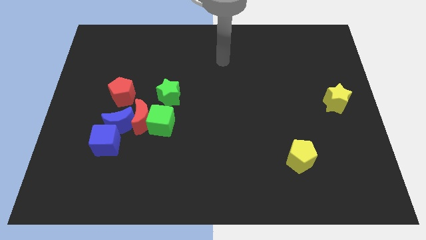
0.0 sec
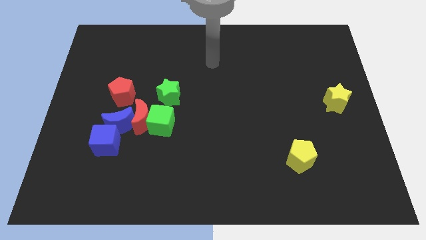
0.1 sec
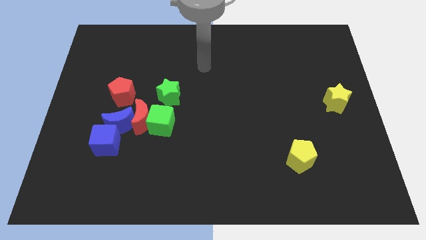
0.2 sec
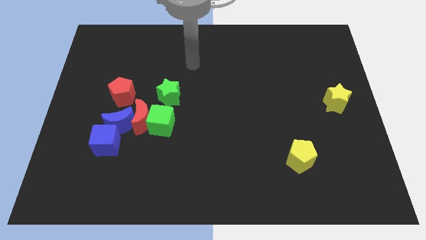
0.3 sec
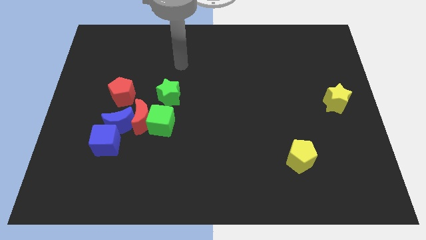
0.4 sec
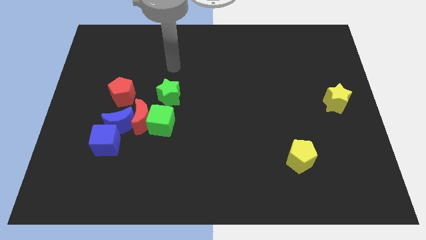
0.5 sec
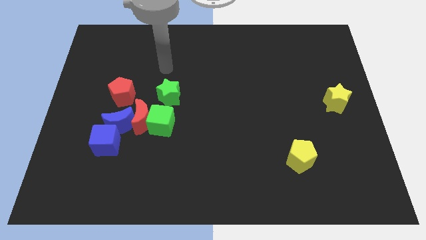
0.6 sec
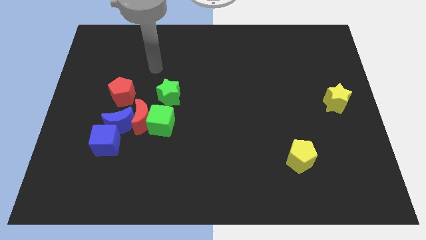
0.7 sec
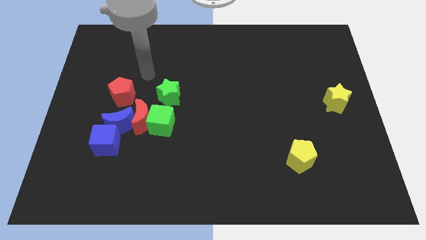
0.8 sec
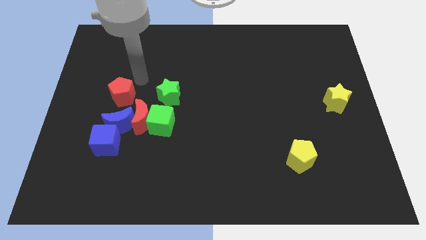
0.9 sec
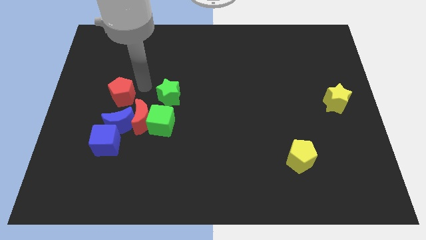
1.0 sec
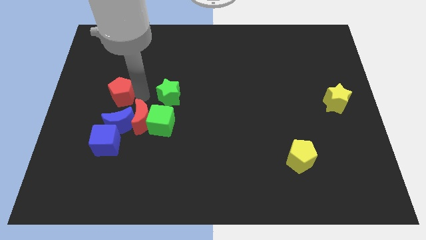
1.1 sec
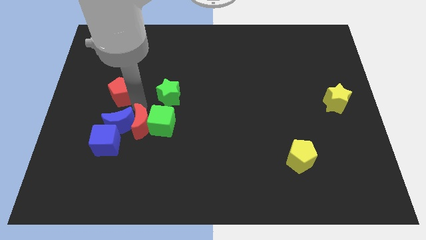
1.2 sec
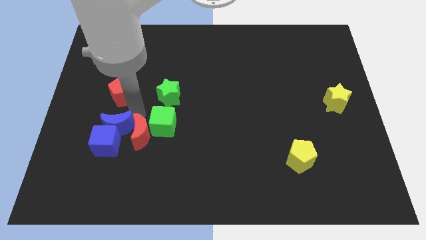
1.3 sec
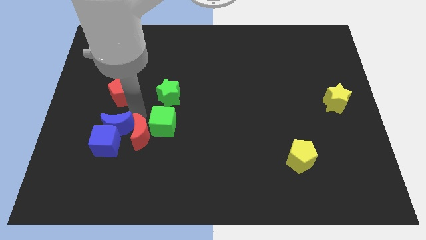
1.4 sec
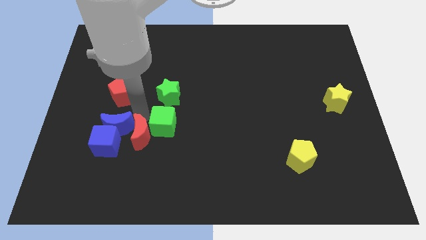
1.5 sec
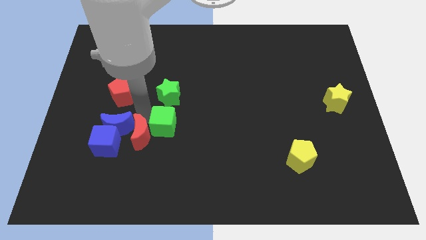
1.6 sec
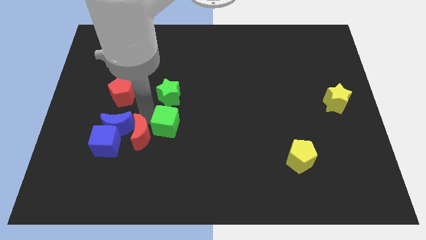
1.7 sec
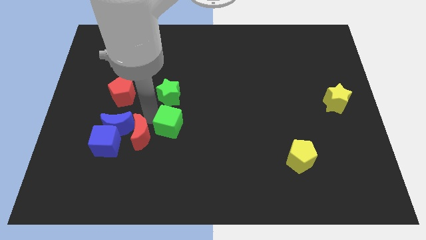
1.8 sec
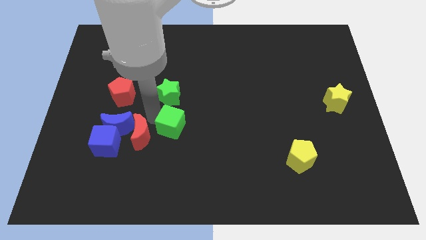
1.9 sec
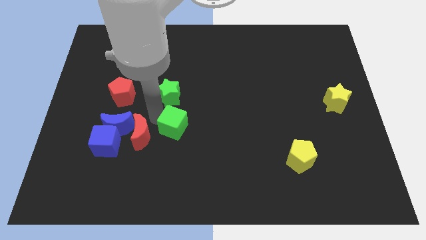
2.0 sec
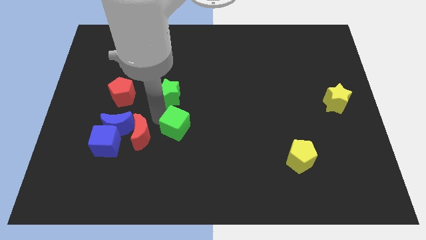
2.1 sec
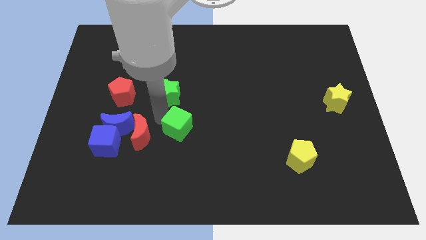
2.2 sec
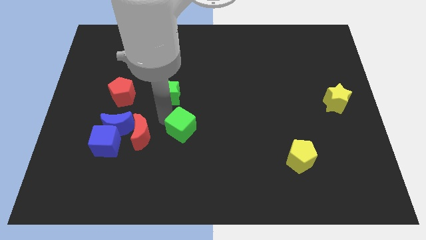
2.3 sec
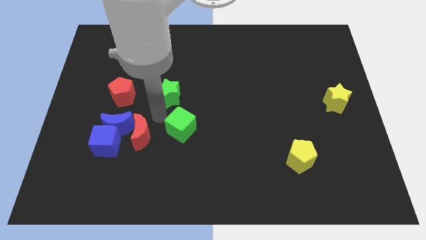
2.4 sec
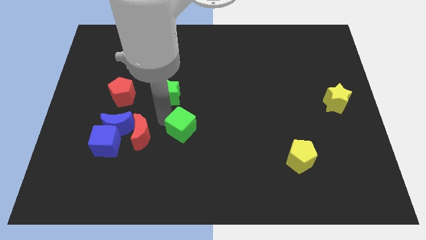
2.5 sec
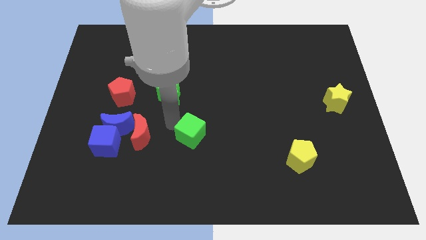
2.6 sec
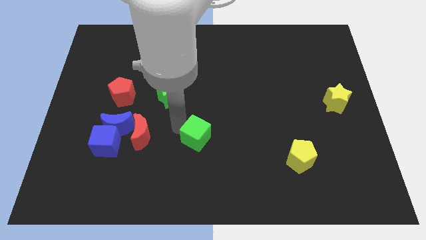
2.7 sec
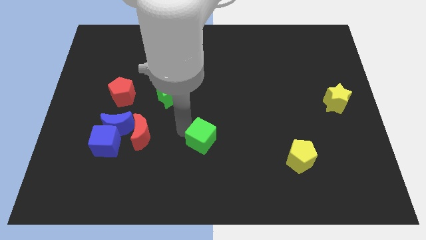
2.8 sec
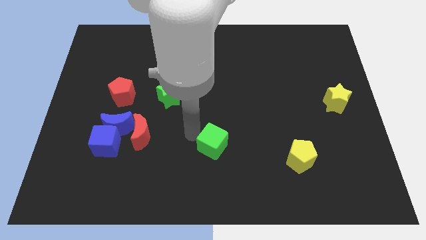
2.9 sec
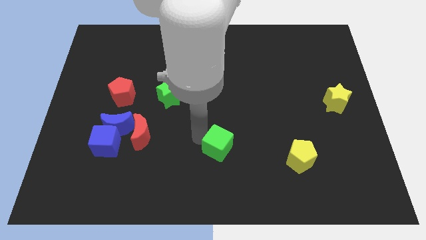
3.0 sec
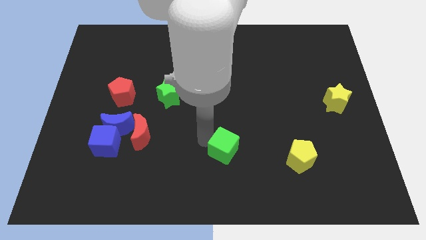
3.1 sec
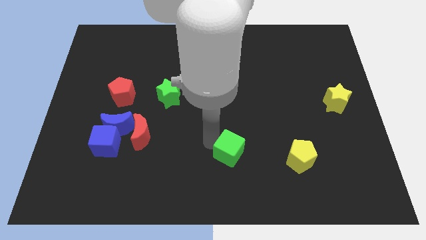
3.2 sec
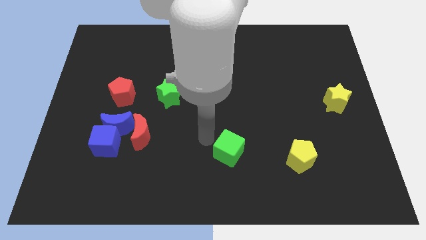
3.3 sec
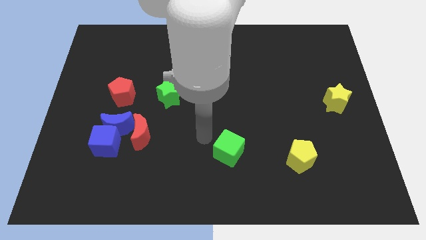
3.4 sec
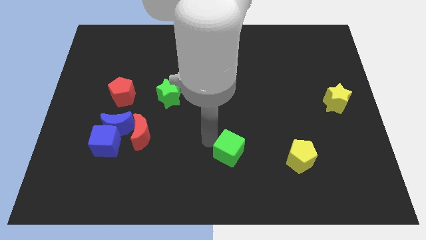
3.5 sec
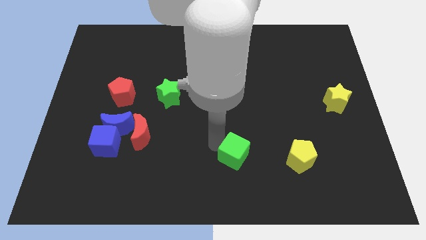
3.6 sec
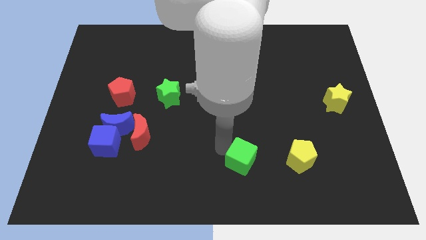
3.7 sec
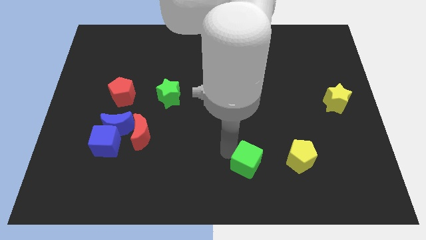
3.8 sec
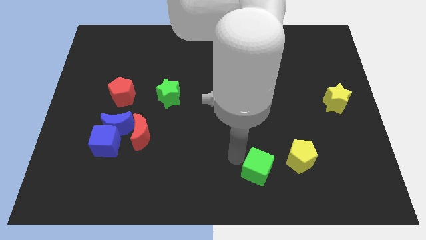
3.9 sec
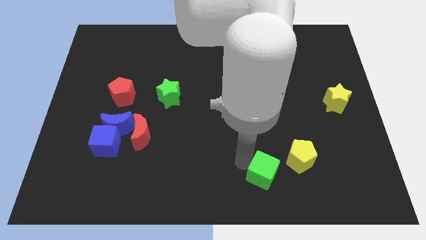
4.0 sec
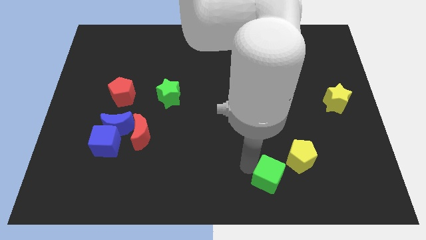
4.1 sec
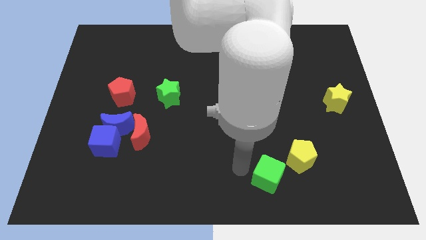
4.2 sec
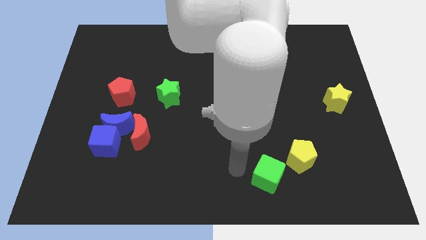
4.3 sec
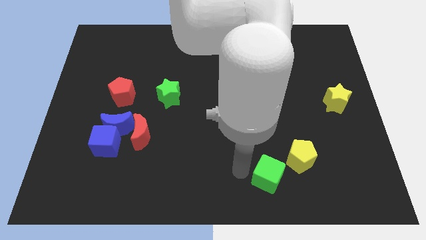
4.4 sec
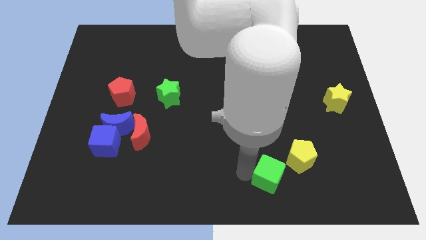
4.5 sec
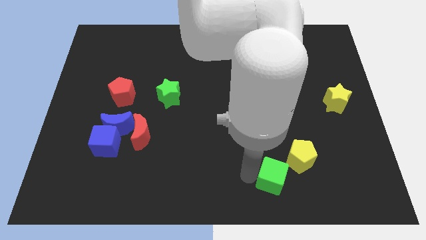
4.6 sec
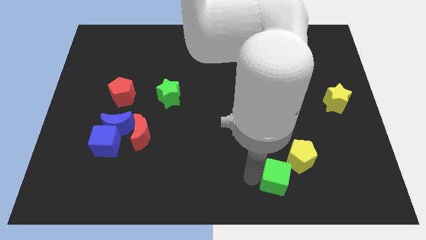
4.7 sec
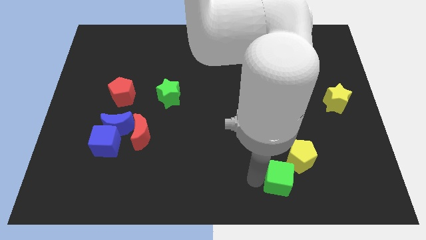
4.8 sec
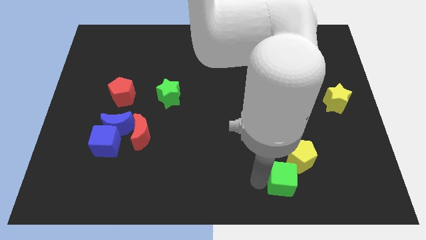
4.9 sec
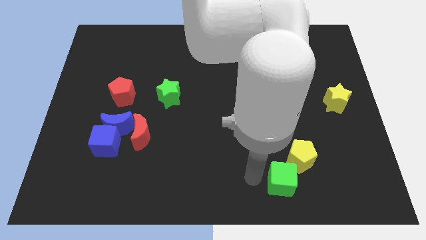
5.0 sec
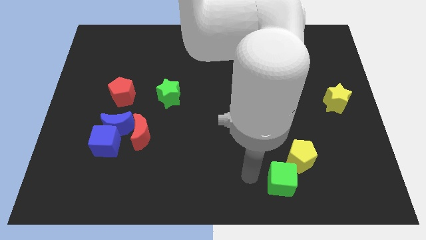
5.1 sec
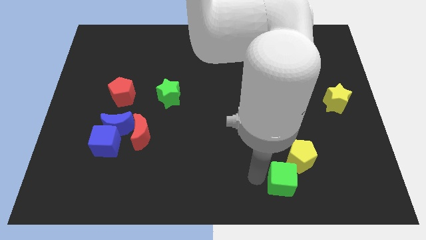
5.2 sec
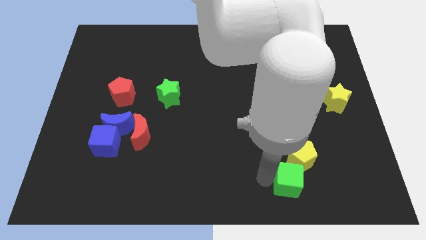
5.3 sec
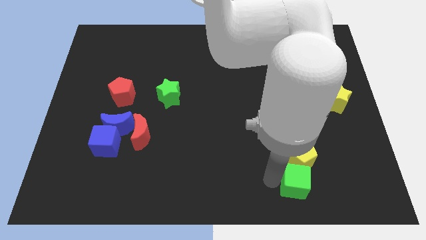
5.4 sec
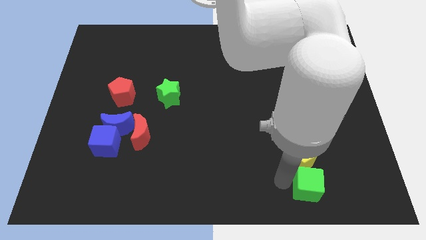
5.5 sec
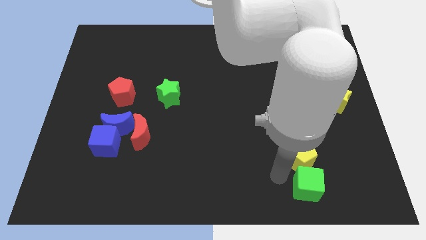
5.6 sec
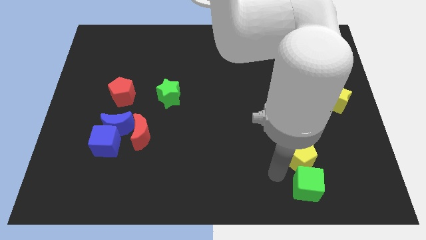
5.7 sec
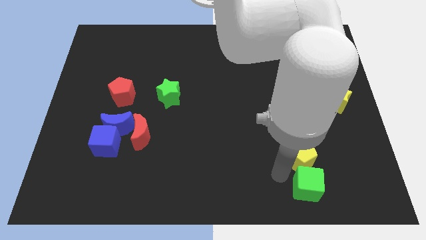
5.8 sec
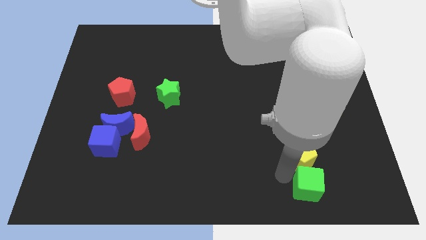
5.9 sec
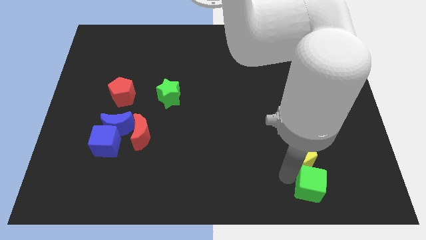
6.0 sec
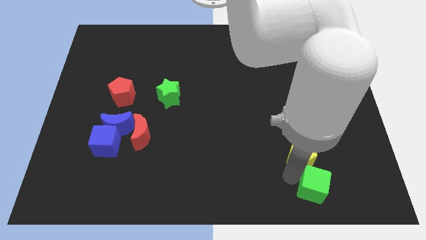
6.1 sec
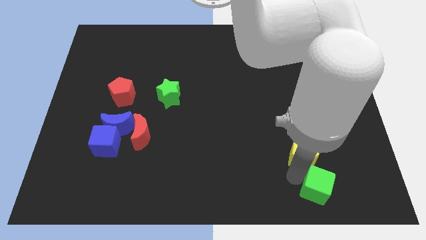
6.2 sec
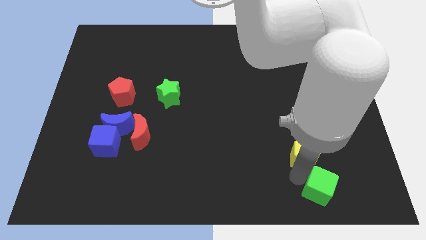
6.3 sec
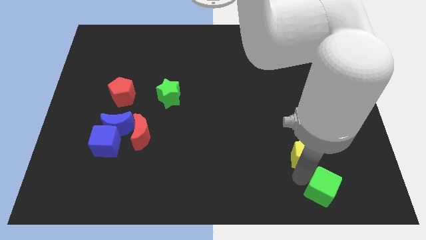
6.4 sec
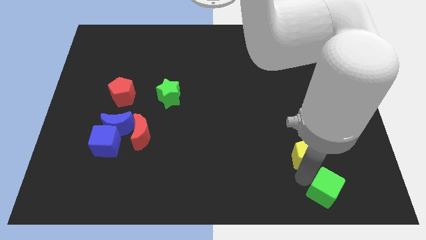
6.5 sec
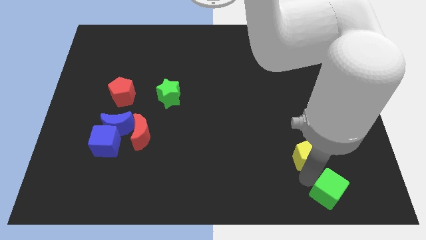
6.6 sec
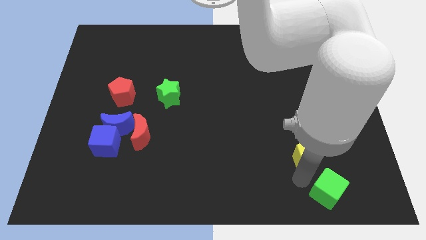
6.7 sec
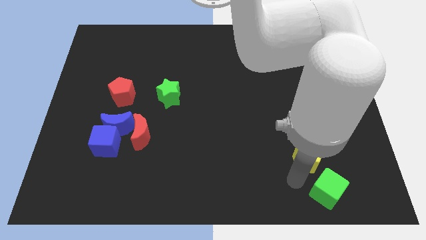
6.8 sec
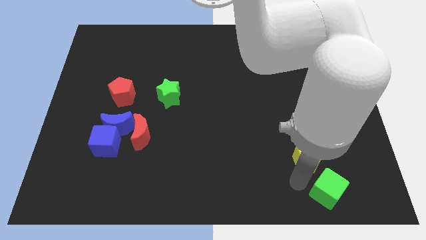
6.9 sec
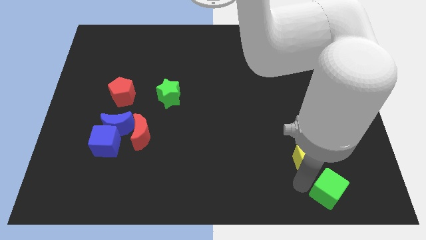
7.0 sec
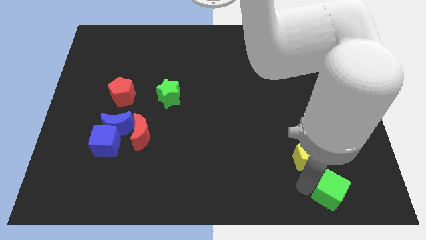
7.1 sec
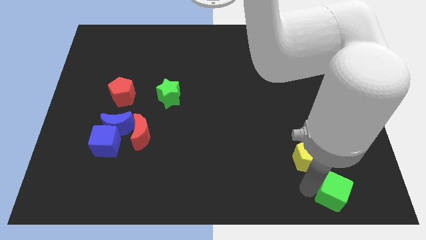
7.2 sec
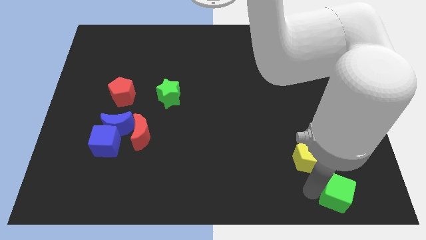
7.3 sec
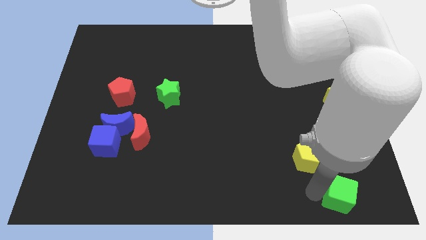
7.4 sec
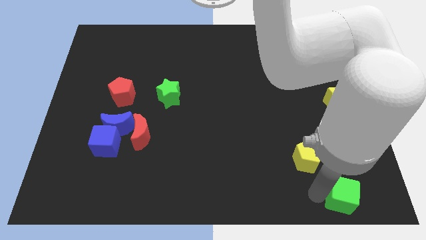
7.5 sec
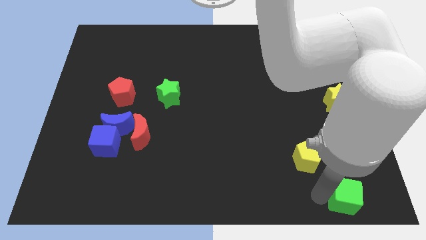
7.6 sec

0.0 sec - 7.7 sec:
move the green cube to the bottom right
